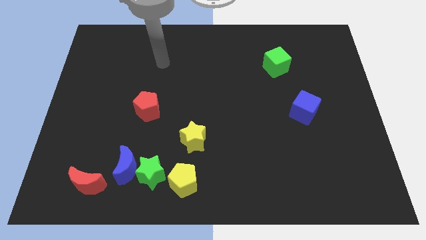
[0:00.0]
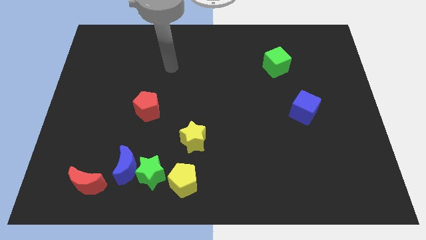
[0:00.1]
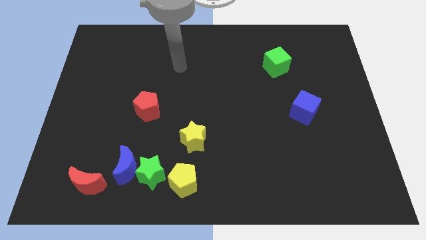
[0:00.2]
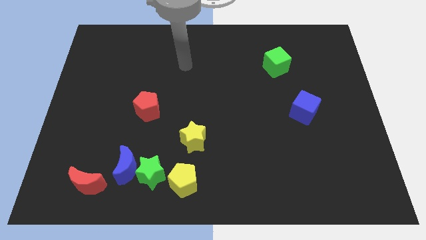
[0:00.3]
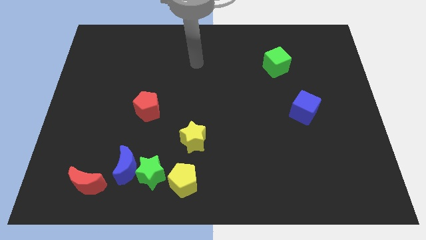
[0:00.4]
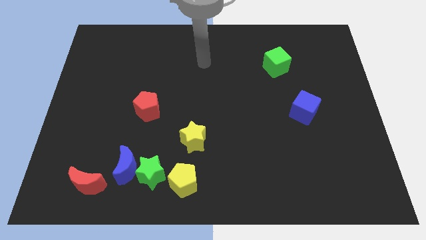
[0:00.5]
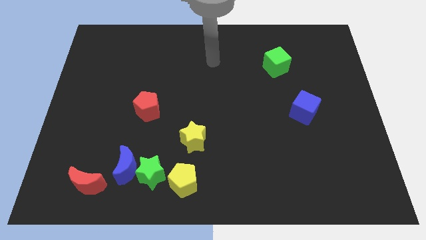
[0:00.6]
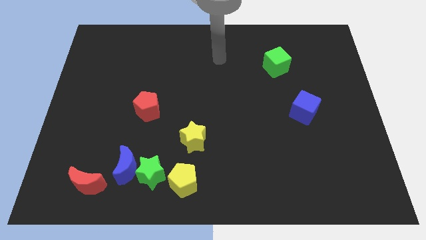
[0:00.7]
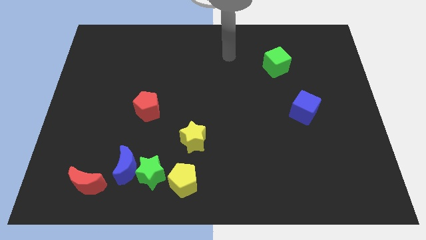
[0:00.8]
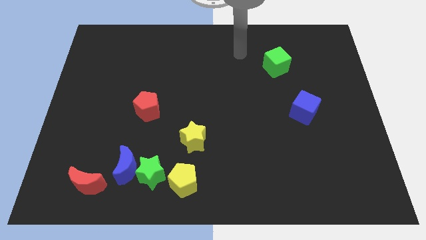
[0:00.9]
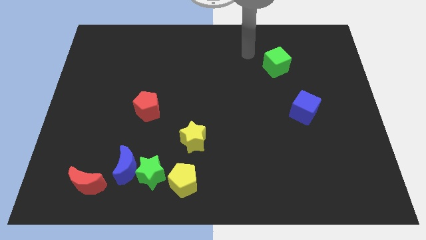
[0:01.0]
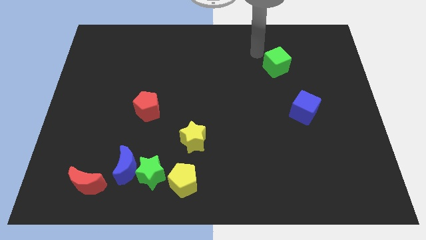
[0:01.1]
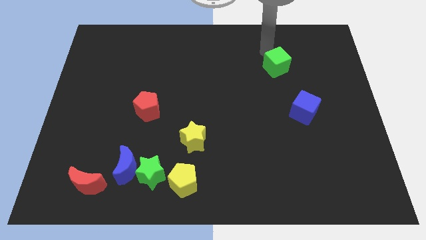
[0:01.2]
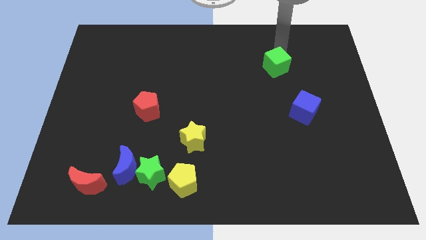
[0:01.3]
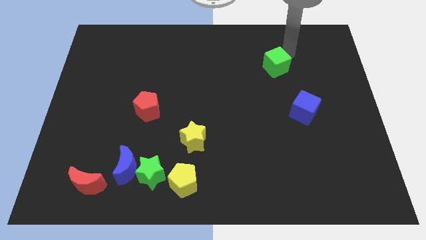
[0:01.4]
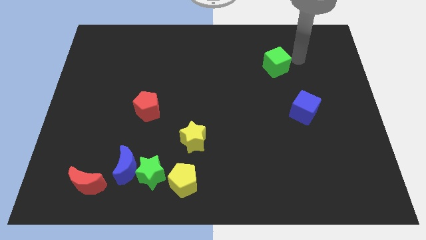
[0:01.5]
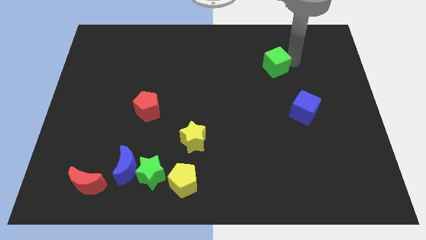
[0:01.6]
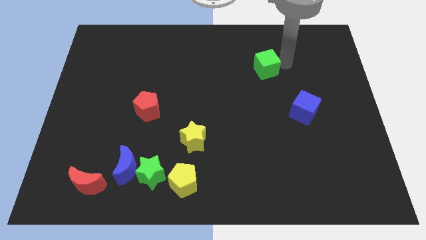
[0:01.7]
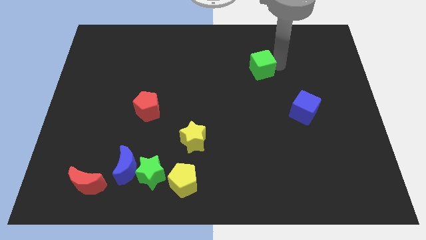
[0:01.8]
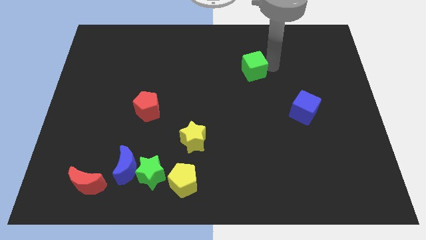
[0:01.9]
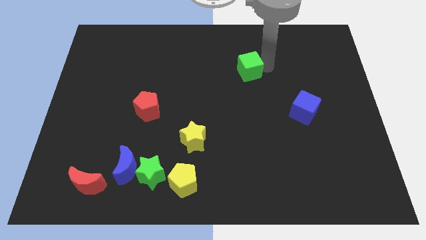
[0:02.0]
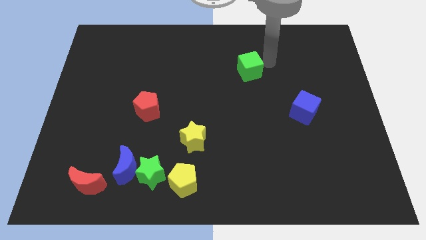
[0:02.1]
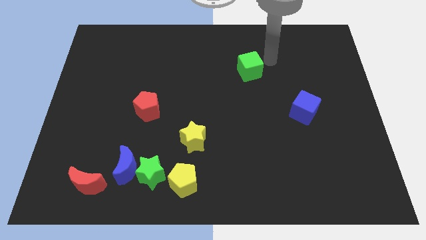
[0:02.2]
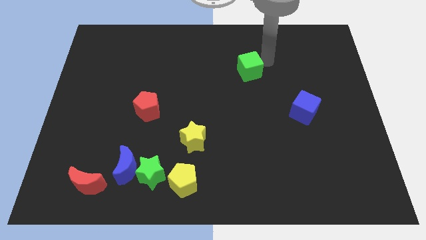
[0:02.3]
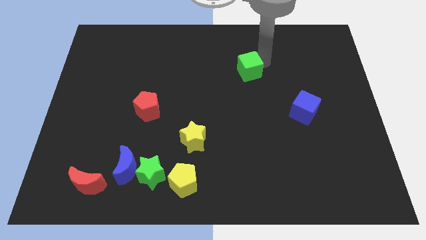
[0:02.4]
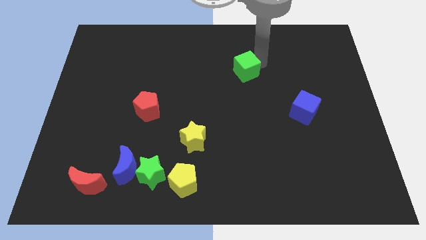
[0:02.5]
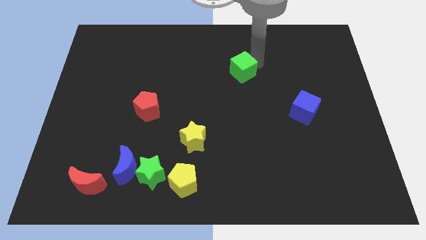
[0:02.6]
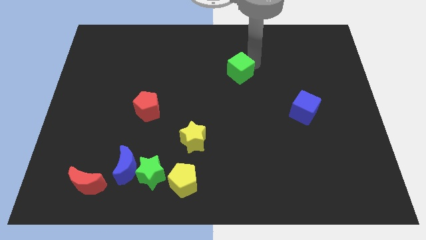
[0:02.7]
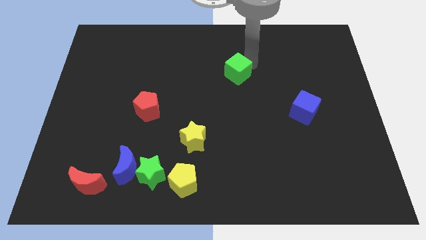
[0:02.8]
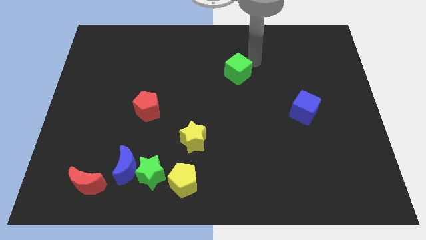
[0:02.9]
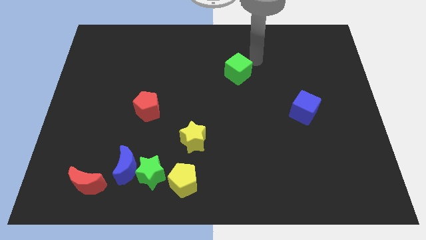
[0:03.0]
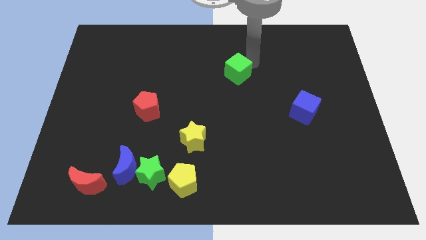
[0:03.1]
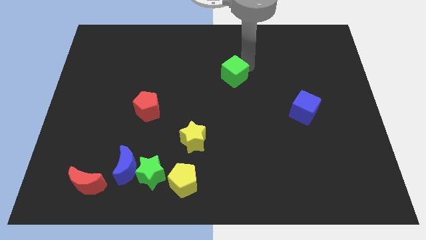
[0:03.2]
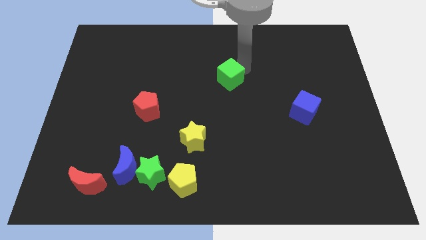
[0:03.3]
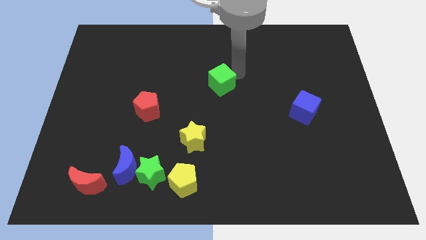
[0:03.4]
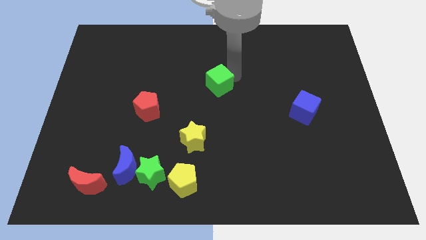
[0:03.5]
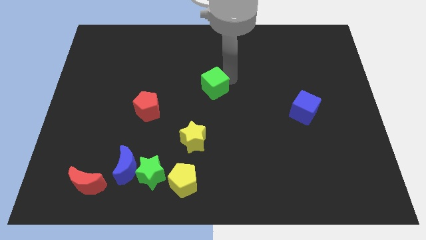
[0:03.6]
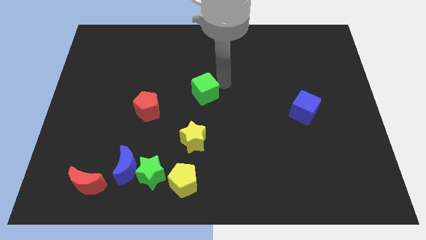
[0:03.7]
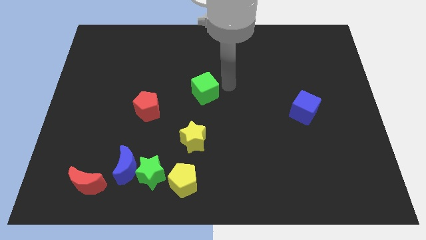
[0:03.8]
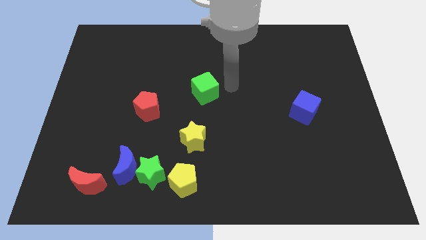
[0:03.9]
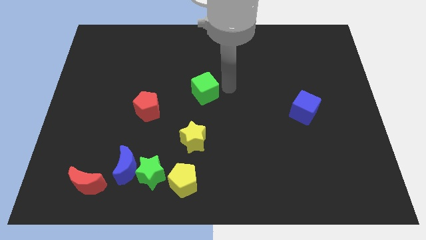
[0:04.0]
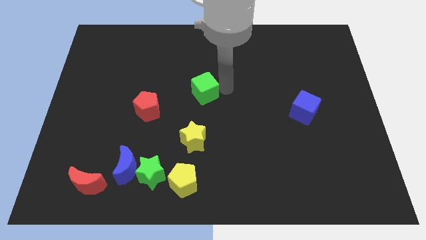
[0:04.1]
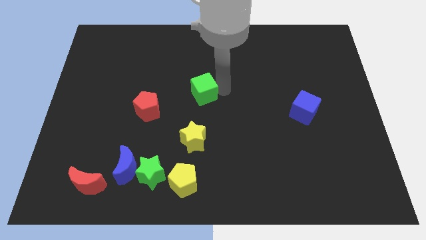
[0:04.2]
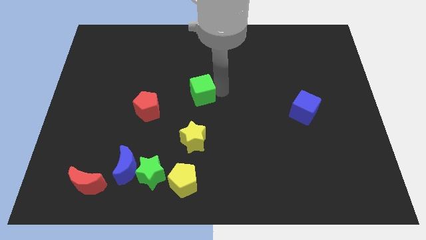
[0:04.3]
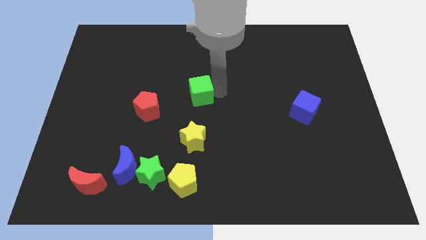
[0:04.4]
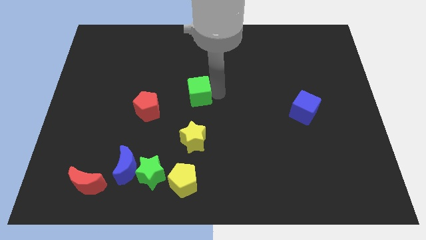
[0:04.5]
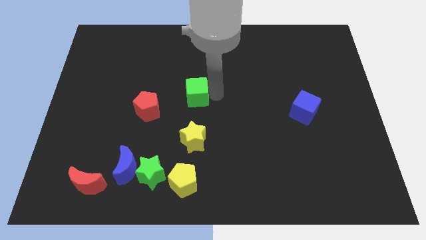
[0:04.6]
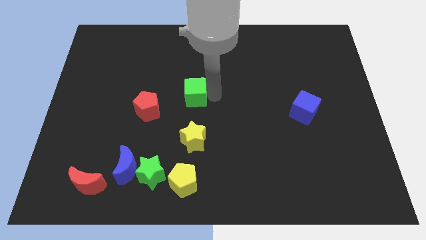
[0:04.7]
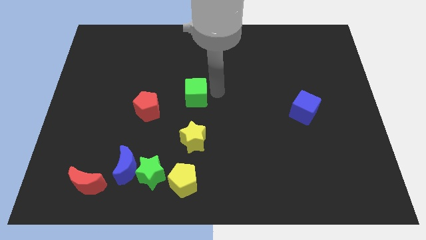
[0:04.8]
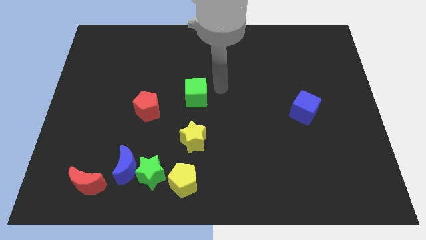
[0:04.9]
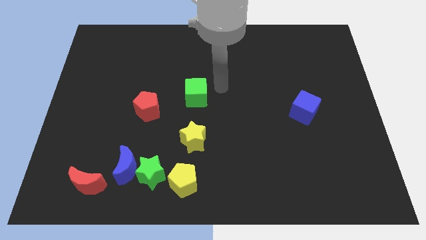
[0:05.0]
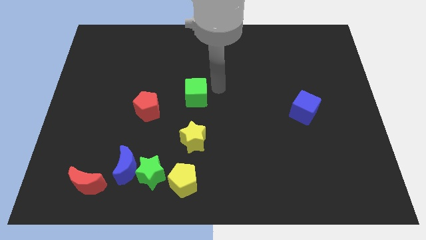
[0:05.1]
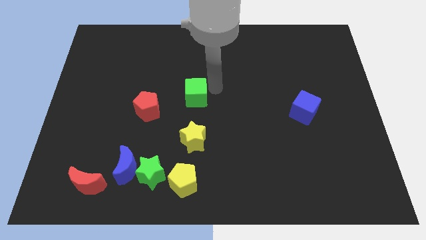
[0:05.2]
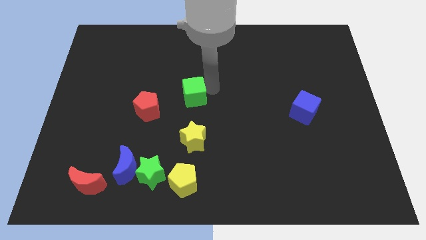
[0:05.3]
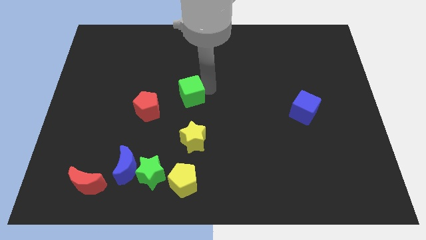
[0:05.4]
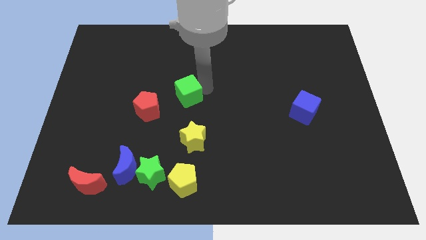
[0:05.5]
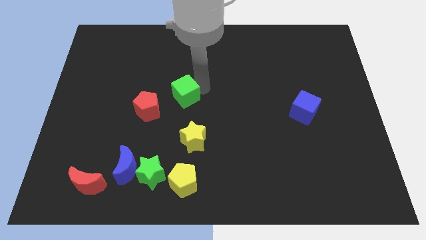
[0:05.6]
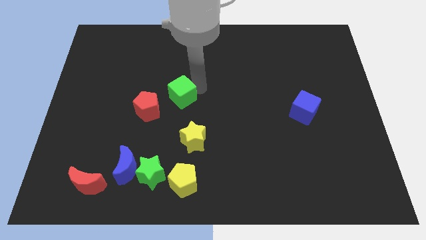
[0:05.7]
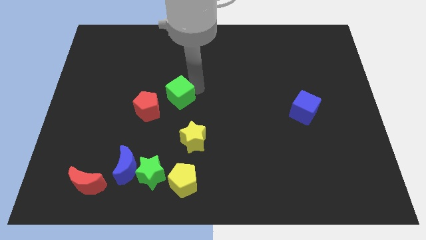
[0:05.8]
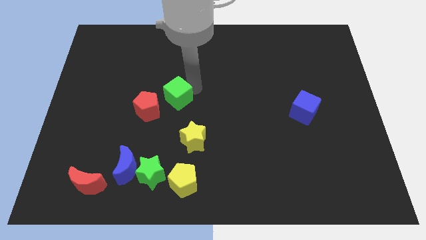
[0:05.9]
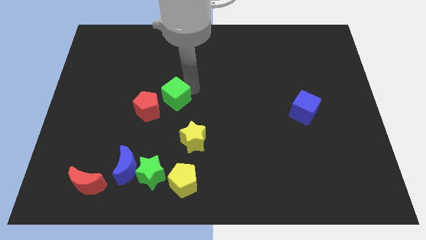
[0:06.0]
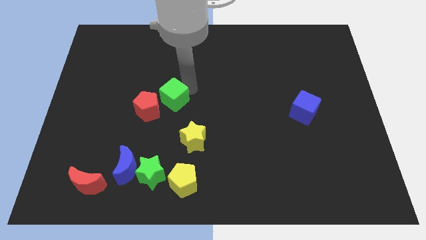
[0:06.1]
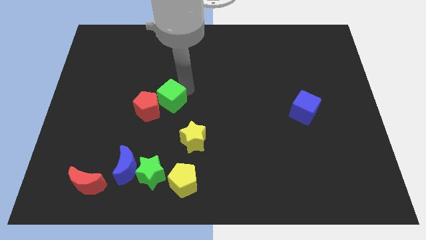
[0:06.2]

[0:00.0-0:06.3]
push the green cube towards the red pentagon
